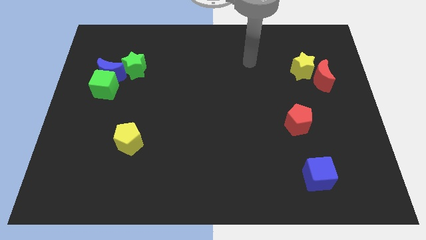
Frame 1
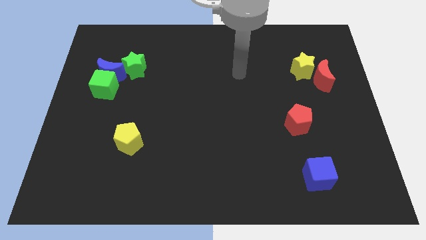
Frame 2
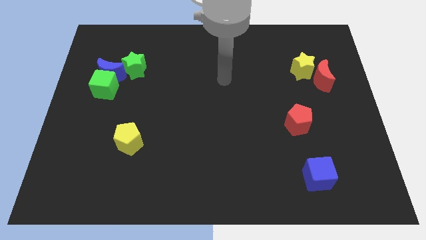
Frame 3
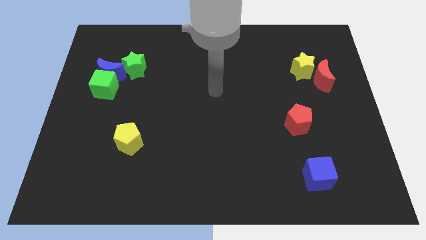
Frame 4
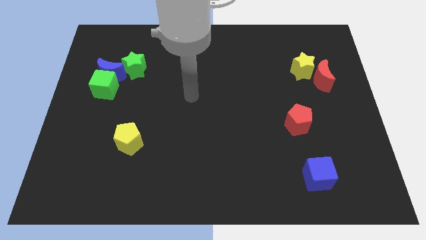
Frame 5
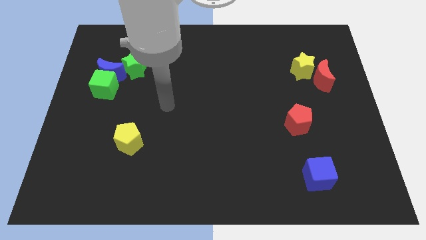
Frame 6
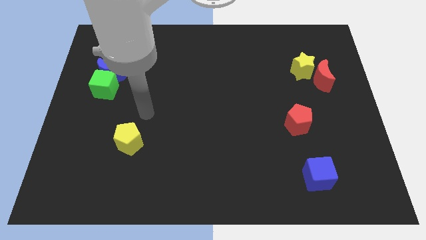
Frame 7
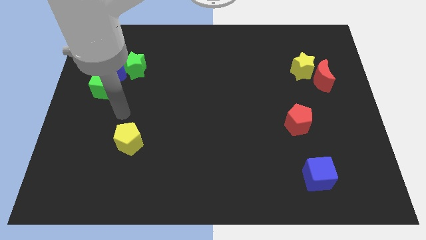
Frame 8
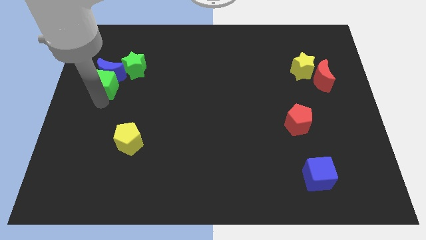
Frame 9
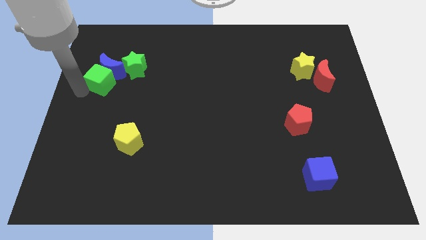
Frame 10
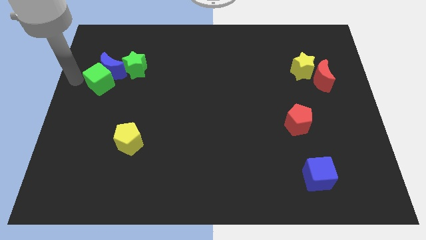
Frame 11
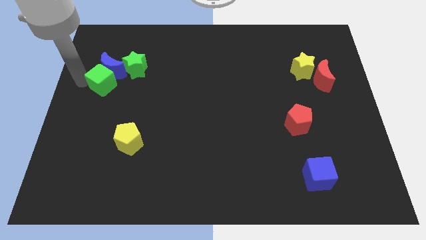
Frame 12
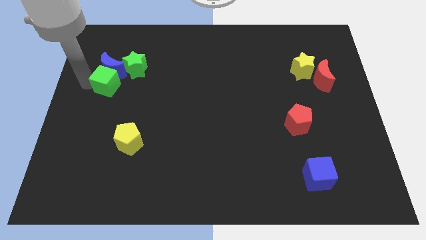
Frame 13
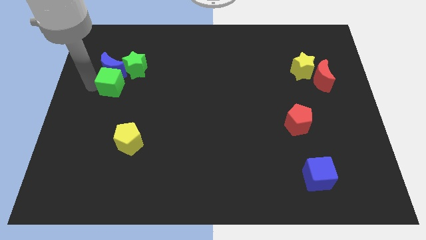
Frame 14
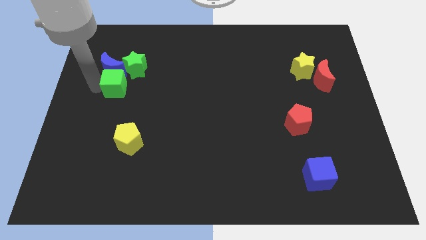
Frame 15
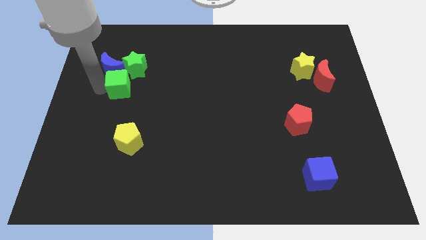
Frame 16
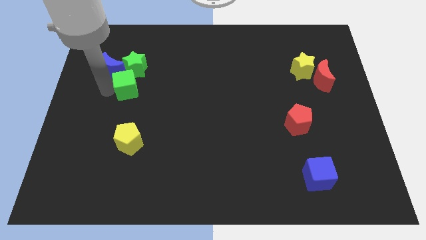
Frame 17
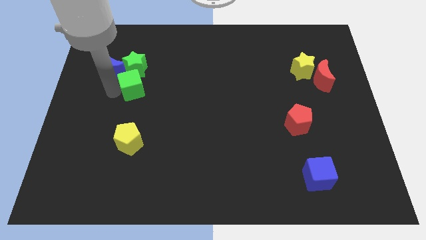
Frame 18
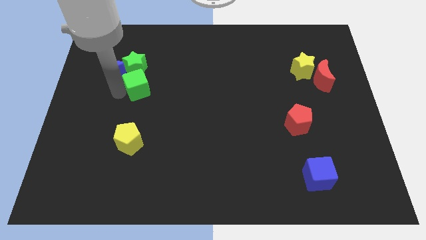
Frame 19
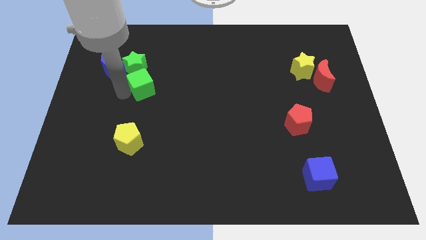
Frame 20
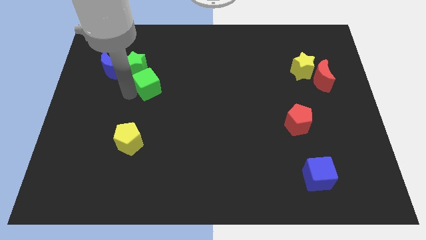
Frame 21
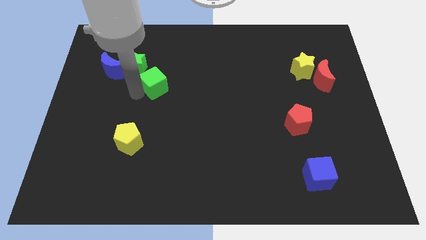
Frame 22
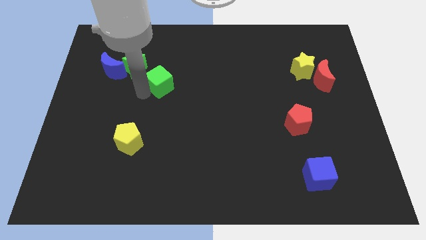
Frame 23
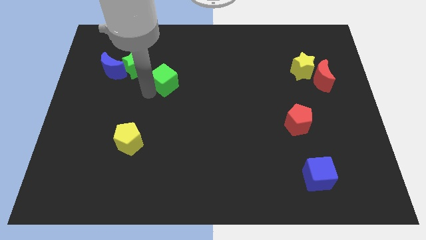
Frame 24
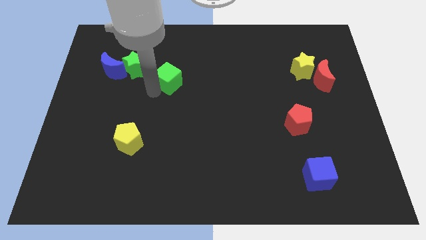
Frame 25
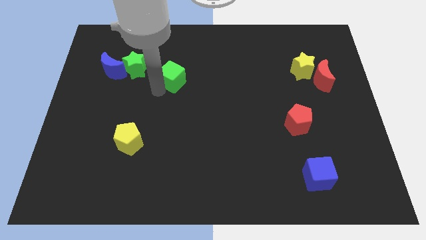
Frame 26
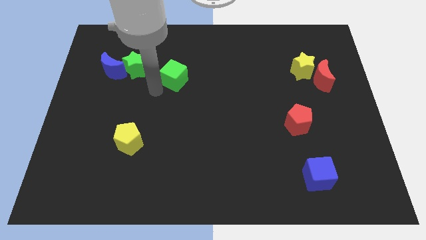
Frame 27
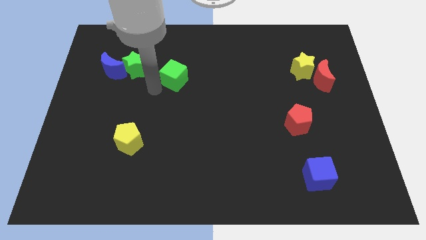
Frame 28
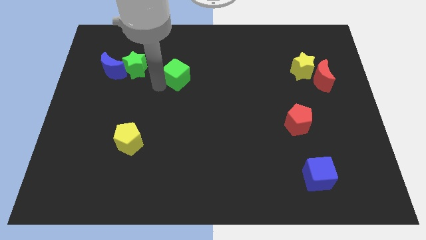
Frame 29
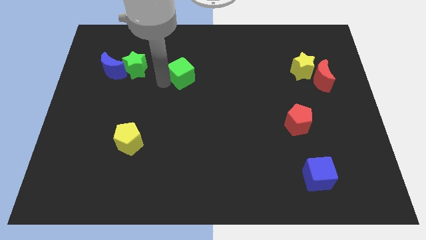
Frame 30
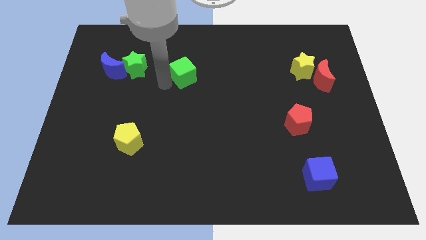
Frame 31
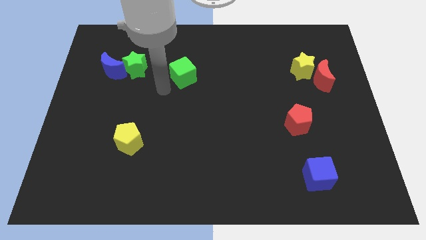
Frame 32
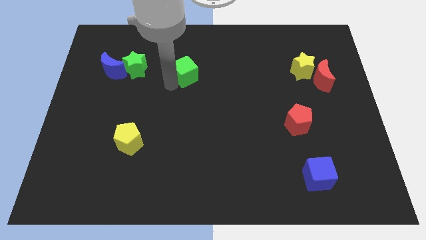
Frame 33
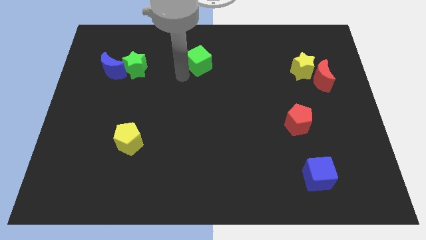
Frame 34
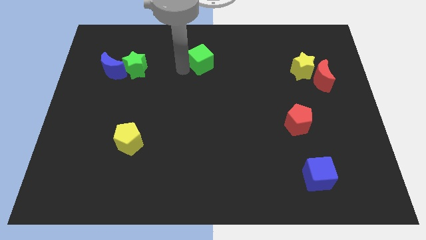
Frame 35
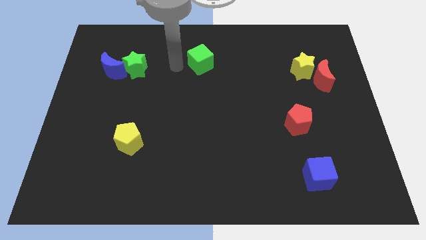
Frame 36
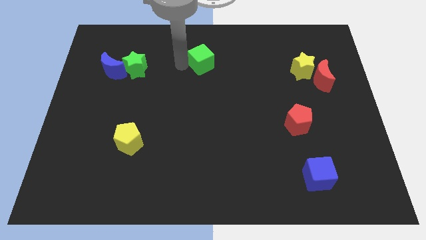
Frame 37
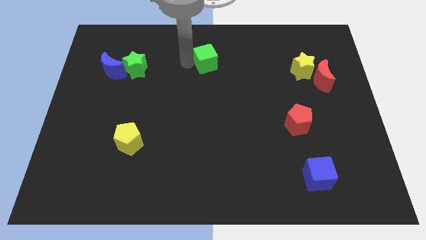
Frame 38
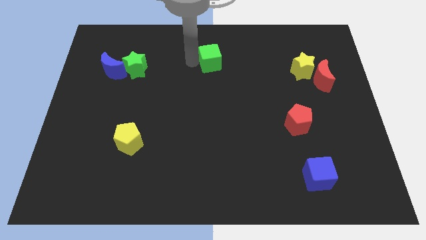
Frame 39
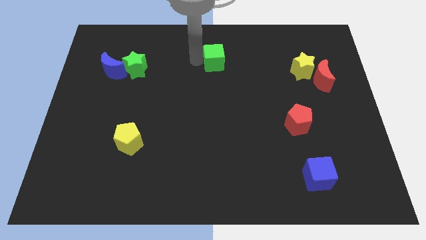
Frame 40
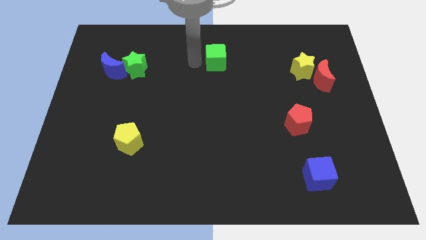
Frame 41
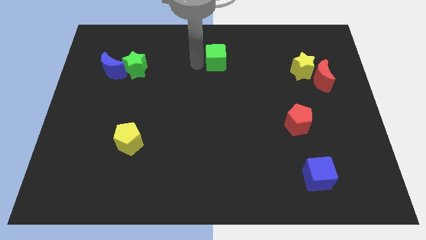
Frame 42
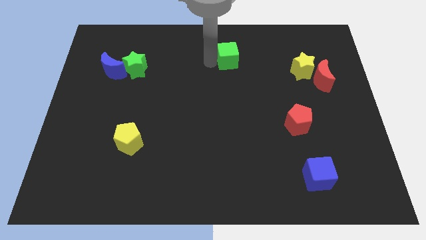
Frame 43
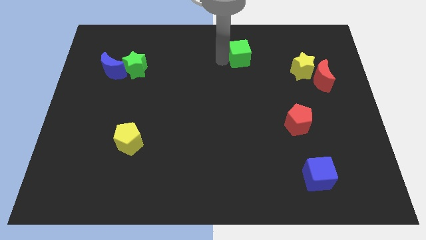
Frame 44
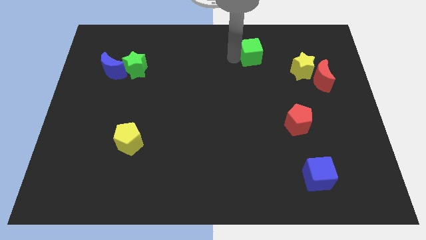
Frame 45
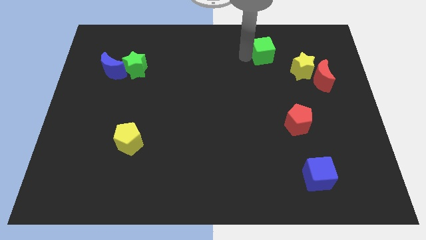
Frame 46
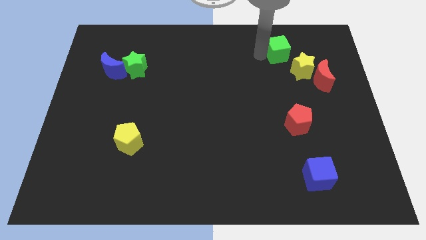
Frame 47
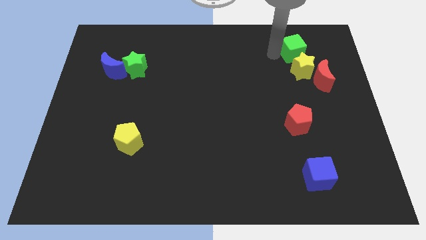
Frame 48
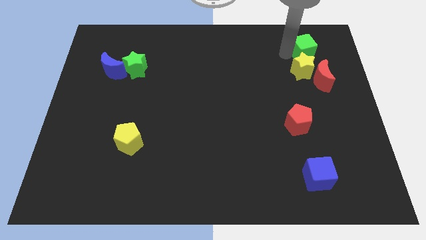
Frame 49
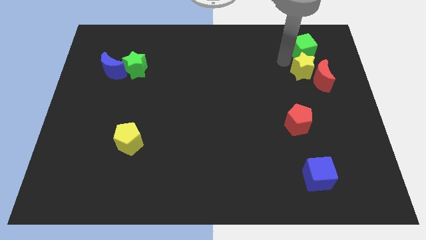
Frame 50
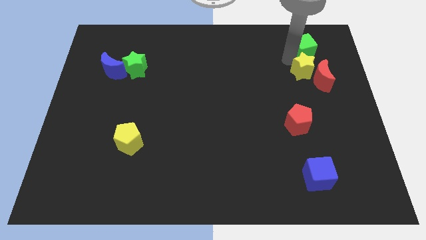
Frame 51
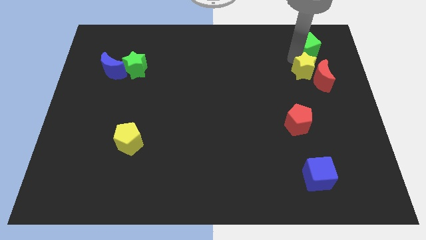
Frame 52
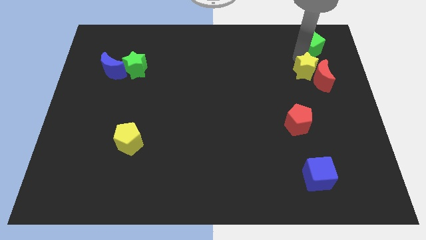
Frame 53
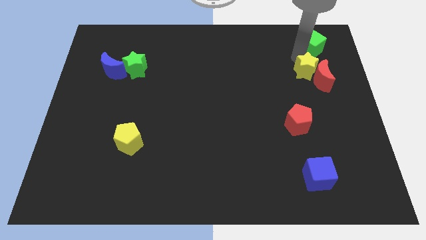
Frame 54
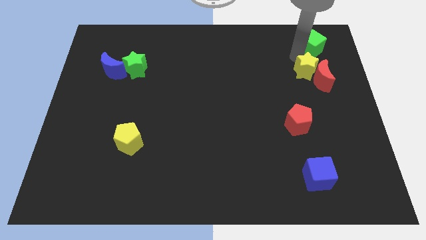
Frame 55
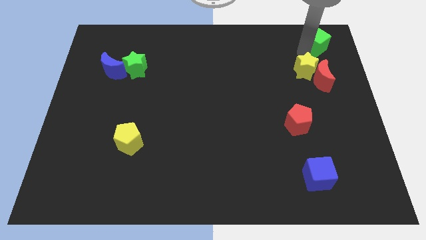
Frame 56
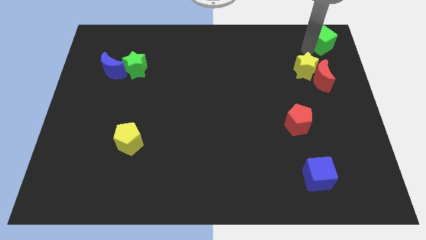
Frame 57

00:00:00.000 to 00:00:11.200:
push the green cube to the top right of the board

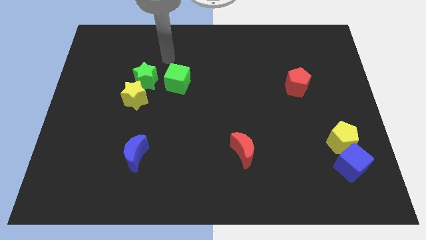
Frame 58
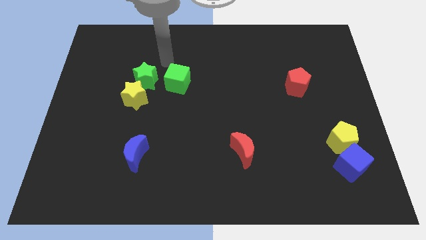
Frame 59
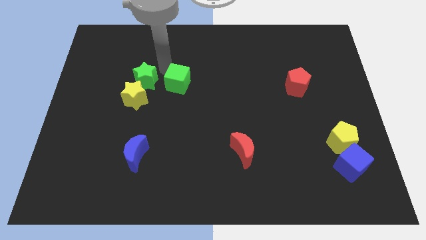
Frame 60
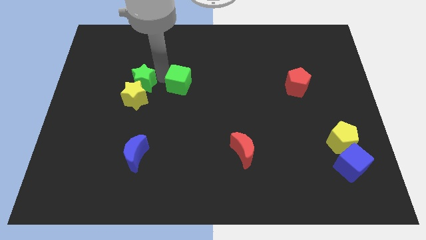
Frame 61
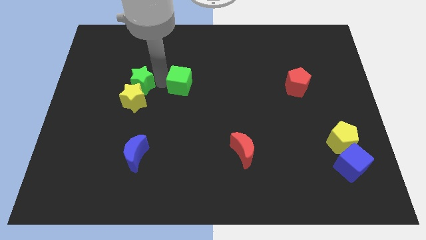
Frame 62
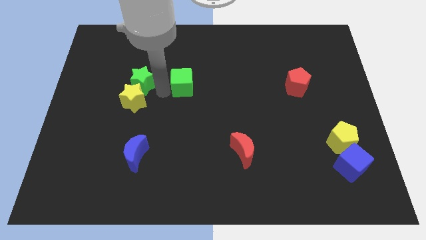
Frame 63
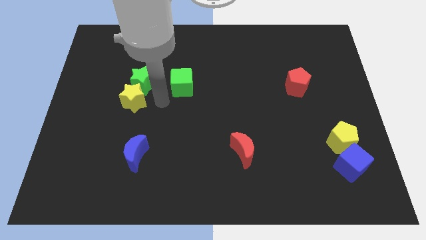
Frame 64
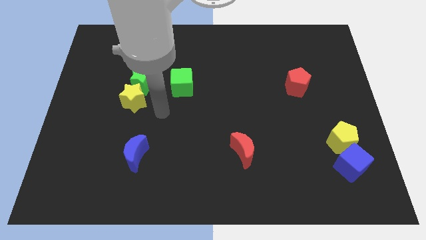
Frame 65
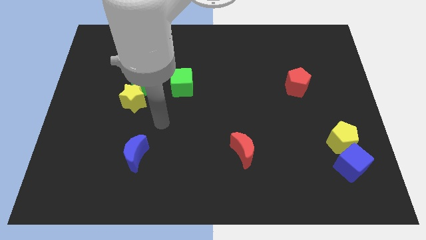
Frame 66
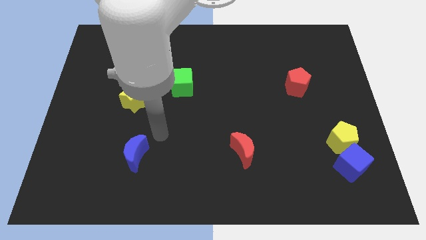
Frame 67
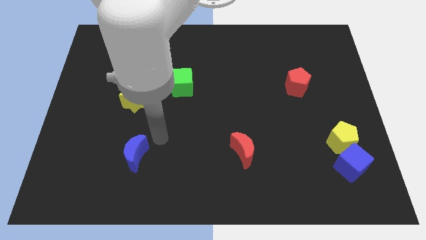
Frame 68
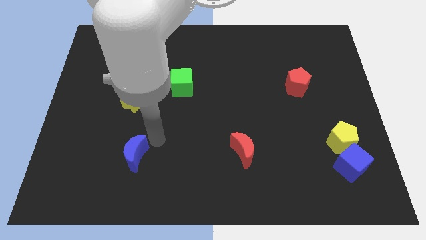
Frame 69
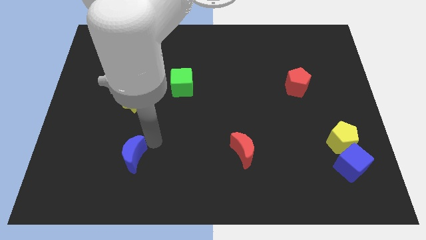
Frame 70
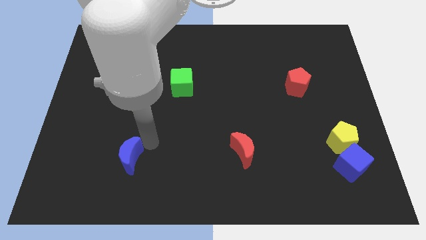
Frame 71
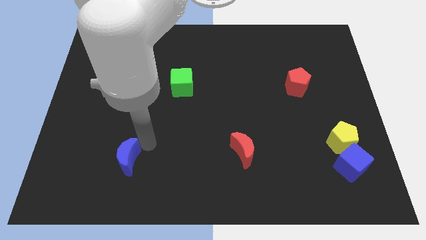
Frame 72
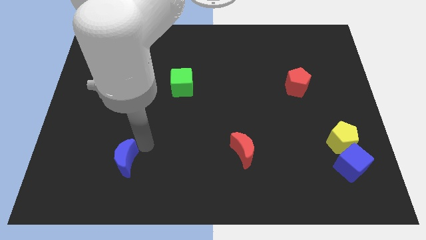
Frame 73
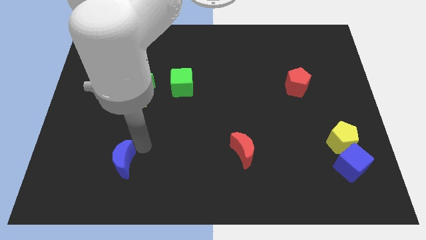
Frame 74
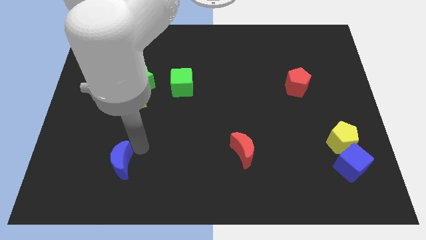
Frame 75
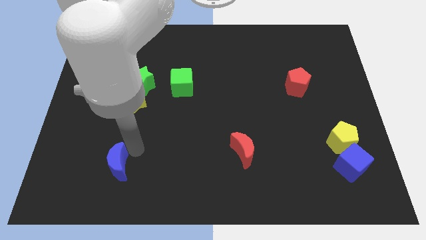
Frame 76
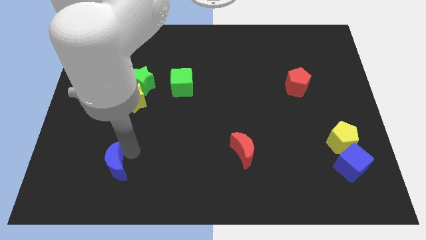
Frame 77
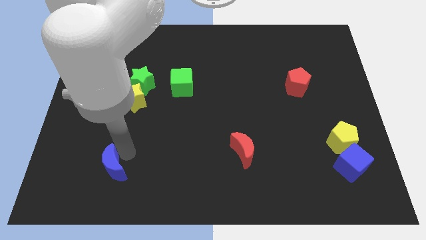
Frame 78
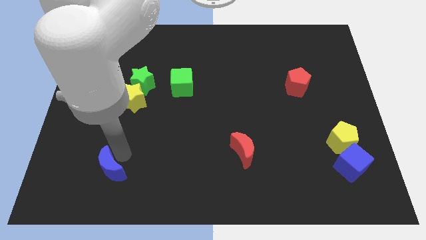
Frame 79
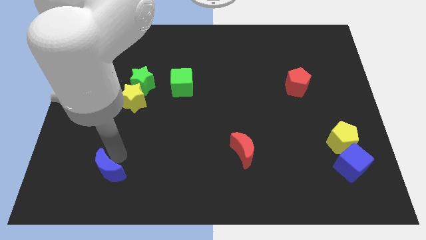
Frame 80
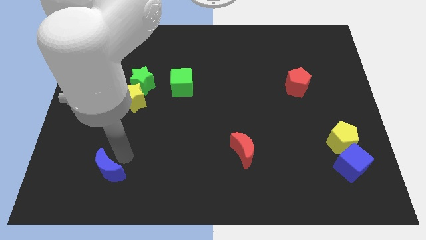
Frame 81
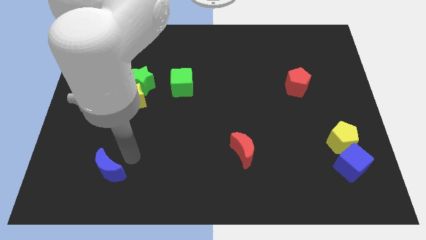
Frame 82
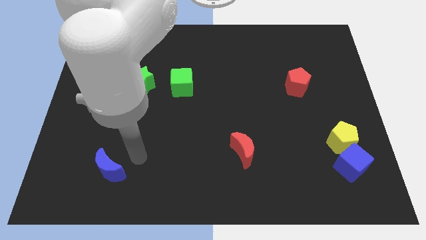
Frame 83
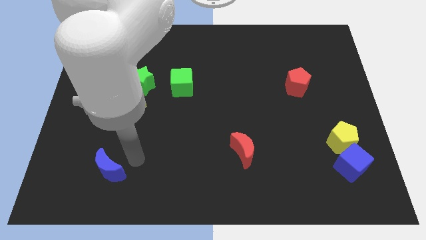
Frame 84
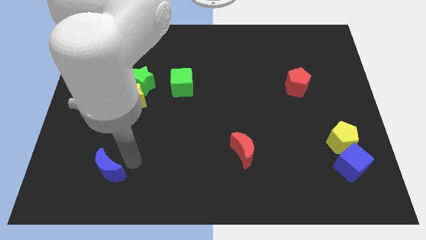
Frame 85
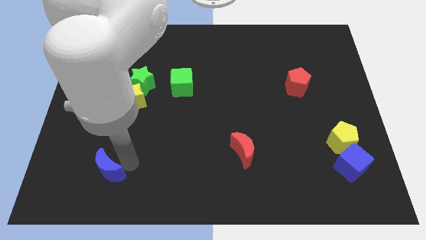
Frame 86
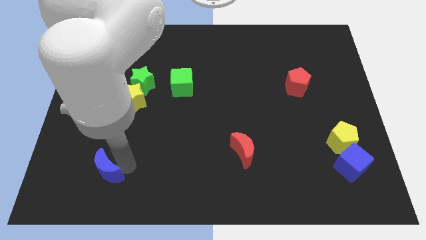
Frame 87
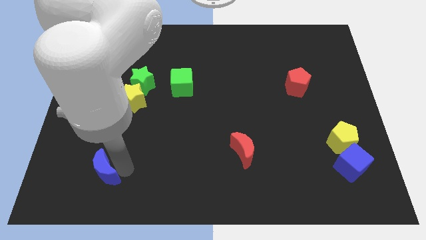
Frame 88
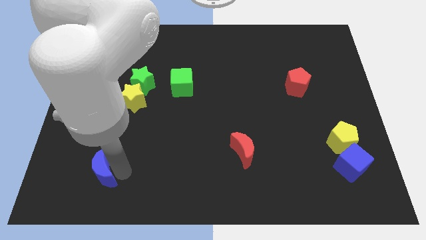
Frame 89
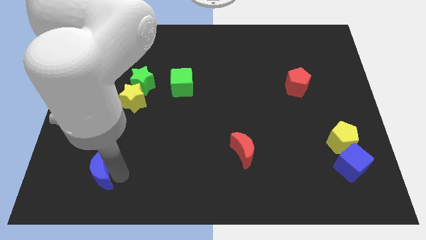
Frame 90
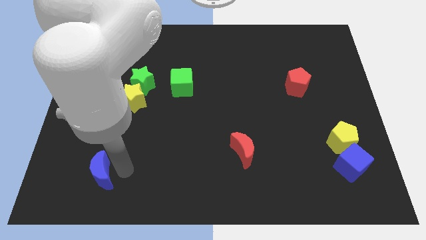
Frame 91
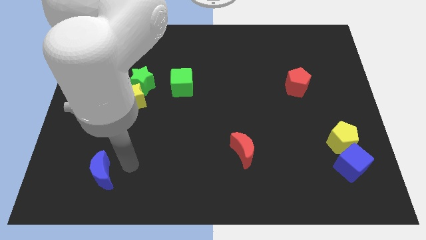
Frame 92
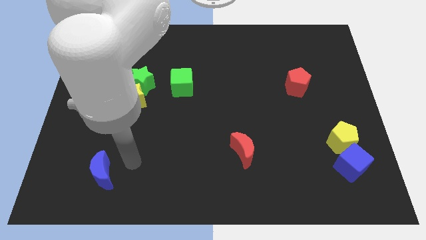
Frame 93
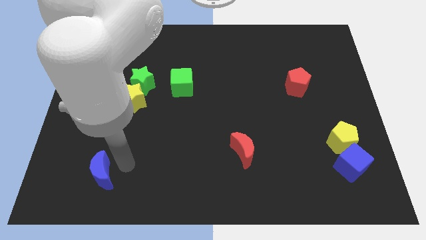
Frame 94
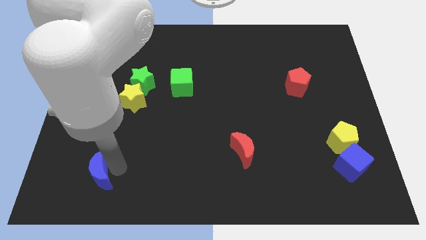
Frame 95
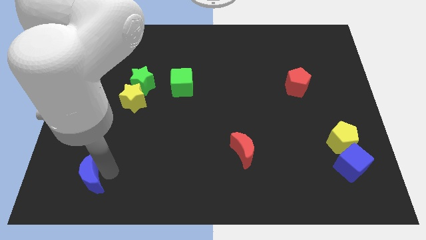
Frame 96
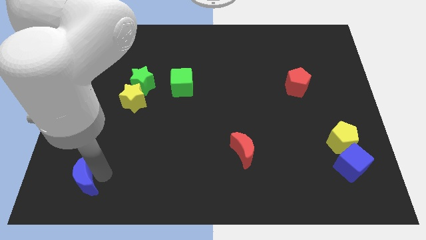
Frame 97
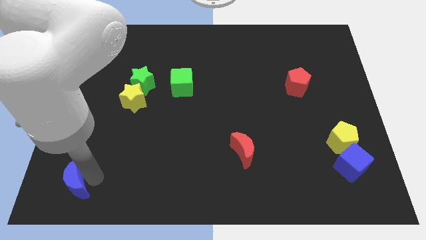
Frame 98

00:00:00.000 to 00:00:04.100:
put the blue moon to the lower left corner
